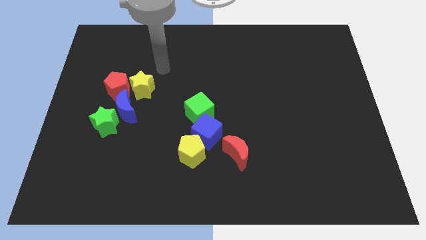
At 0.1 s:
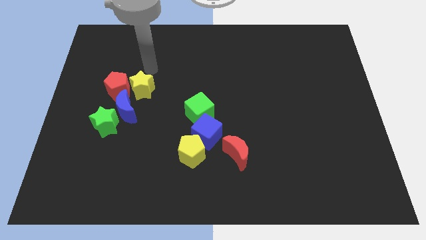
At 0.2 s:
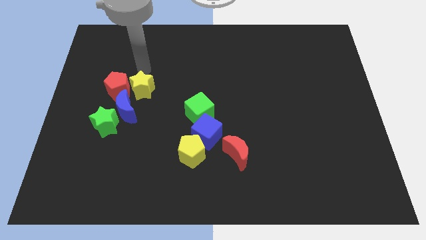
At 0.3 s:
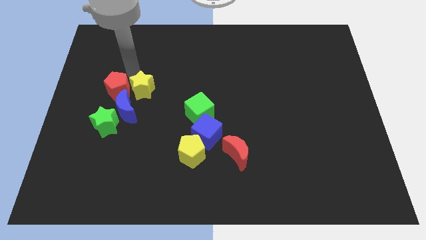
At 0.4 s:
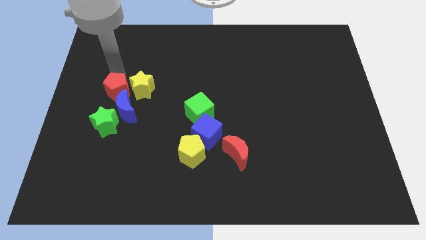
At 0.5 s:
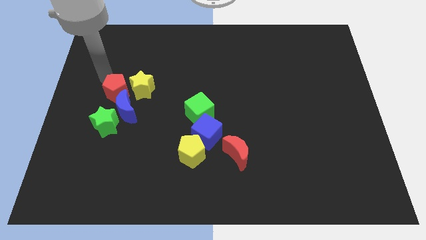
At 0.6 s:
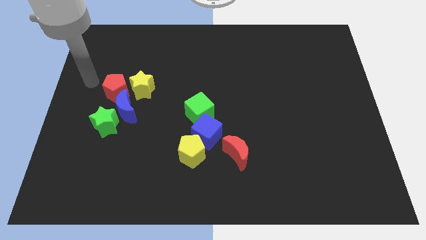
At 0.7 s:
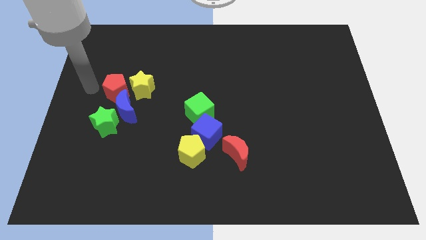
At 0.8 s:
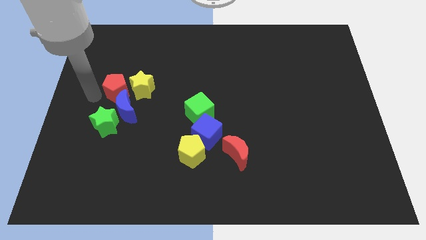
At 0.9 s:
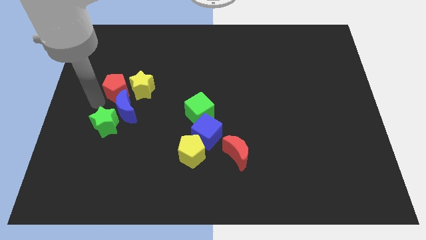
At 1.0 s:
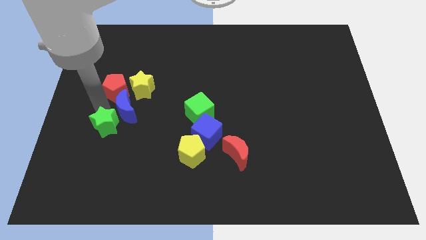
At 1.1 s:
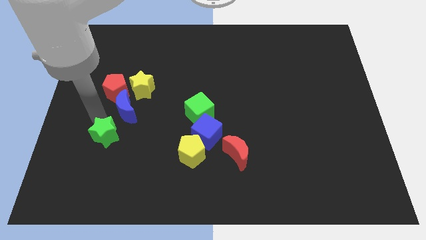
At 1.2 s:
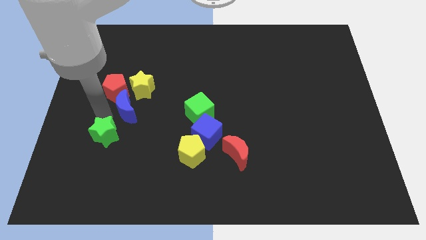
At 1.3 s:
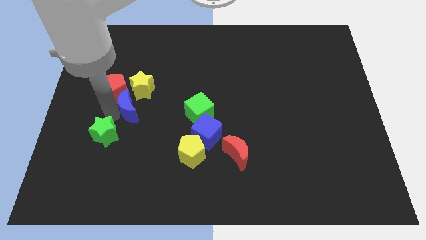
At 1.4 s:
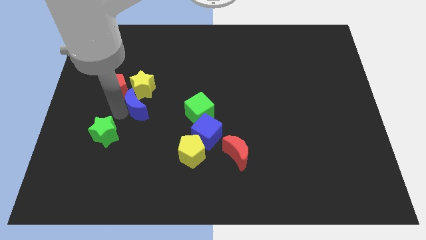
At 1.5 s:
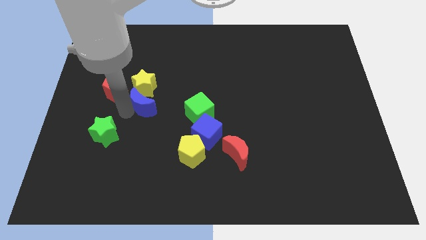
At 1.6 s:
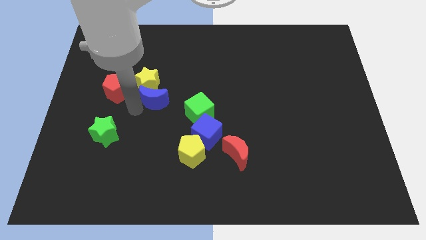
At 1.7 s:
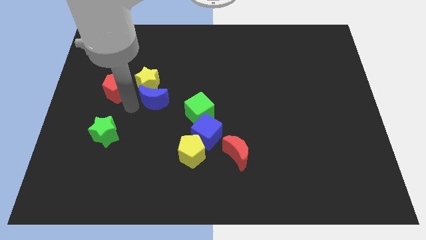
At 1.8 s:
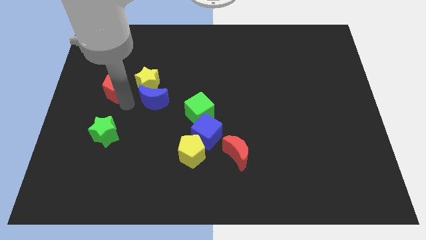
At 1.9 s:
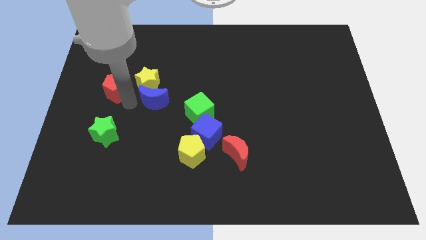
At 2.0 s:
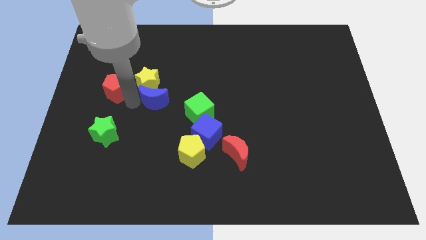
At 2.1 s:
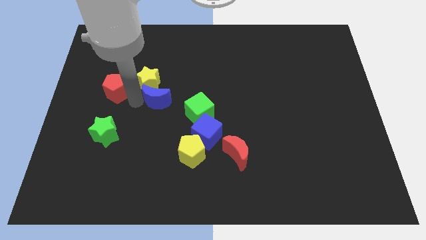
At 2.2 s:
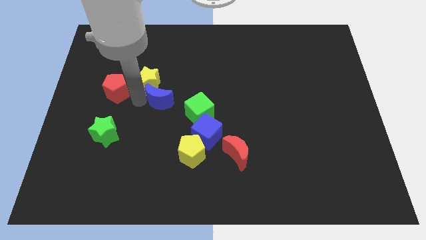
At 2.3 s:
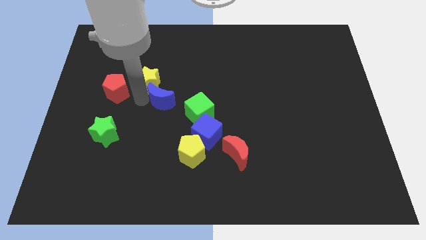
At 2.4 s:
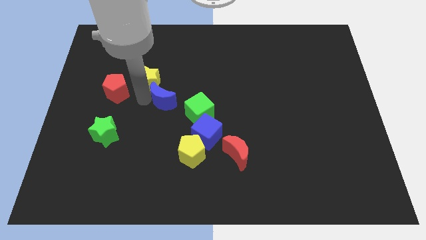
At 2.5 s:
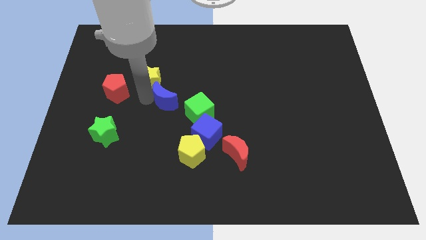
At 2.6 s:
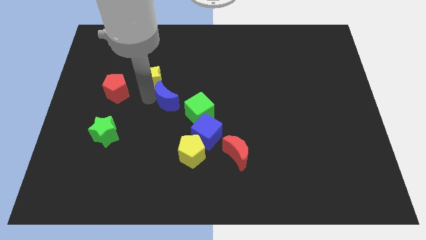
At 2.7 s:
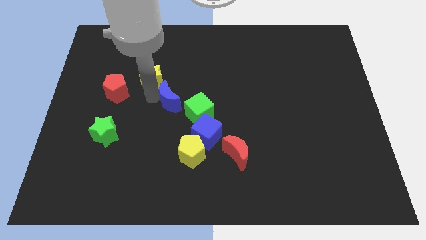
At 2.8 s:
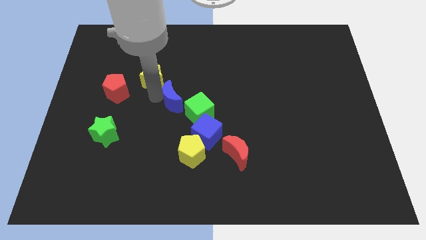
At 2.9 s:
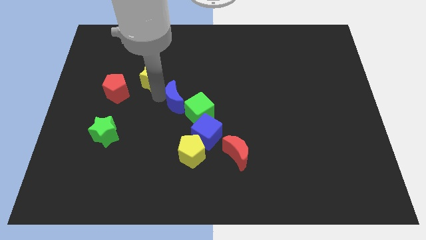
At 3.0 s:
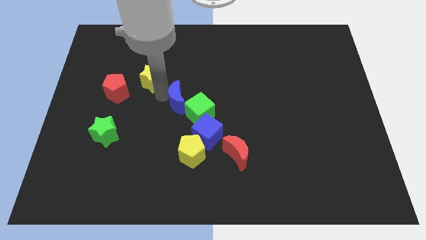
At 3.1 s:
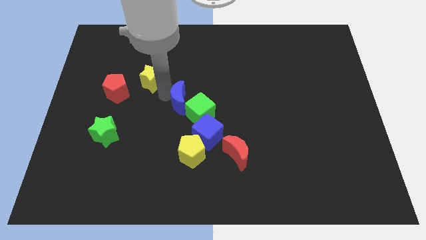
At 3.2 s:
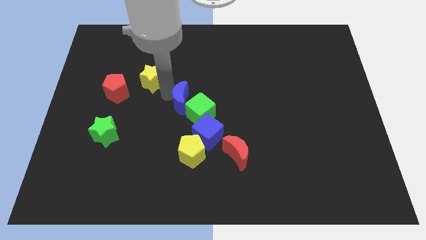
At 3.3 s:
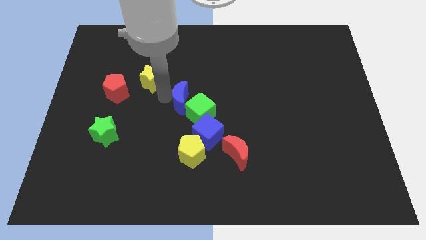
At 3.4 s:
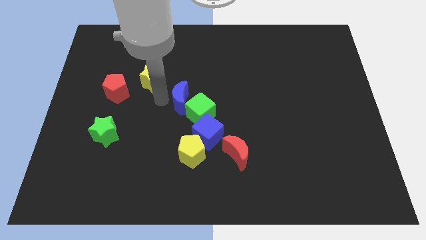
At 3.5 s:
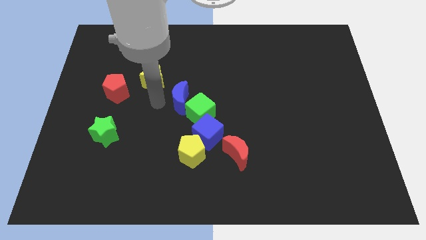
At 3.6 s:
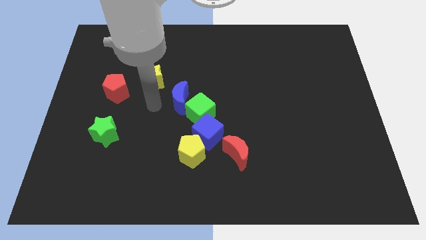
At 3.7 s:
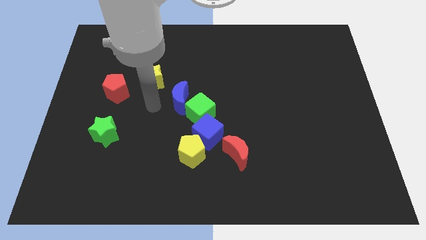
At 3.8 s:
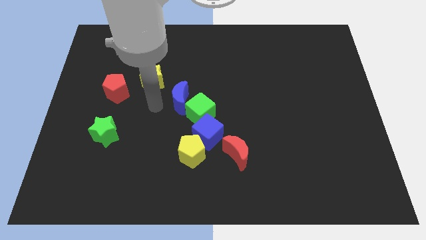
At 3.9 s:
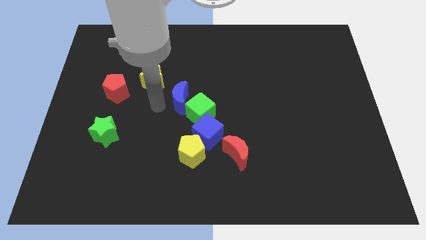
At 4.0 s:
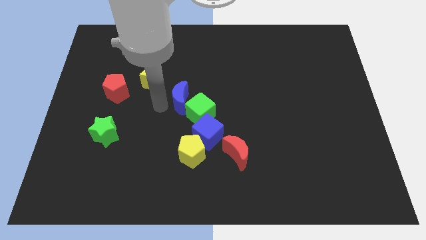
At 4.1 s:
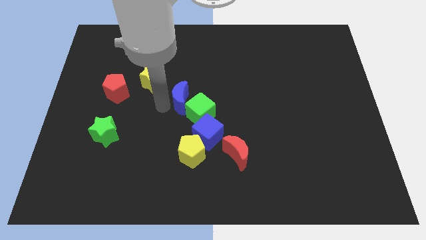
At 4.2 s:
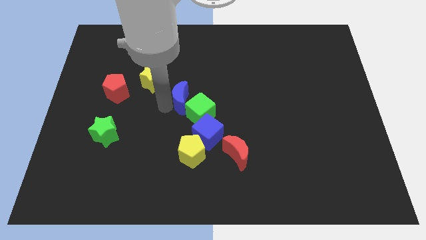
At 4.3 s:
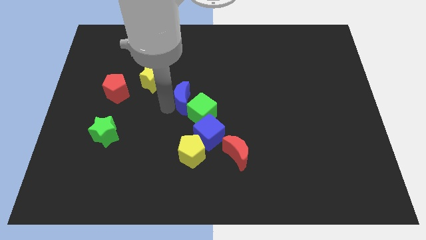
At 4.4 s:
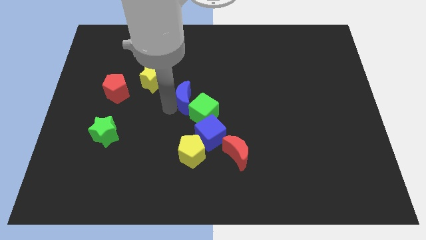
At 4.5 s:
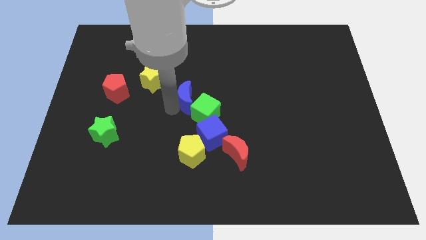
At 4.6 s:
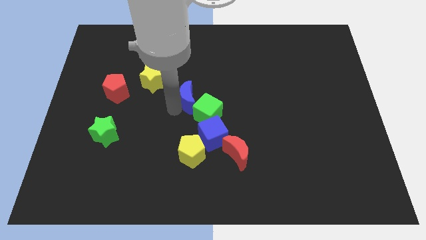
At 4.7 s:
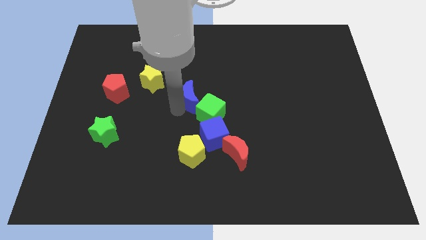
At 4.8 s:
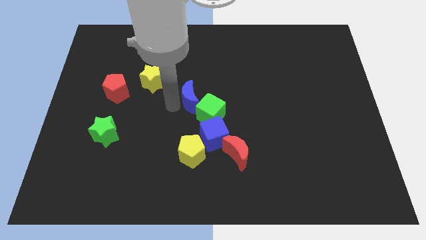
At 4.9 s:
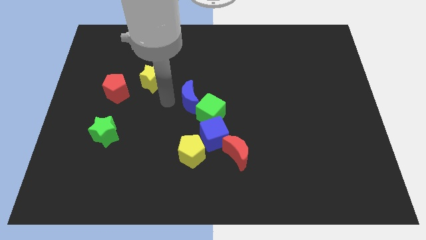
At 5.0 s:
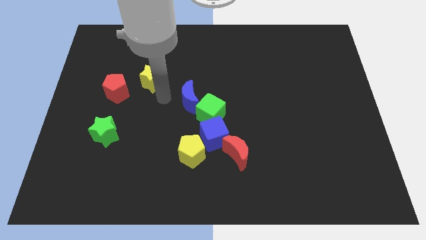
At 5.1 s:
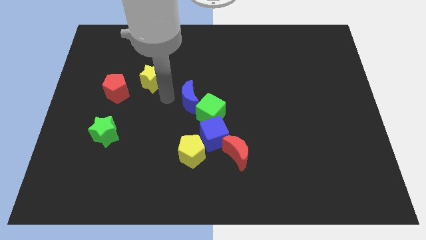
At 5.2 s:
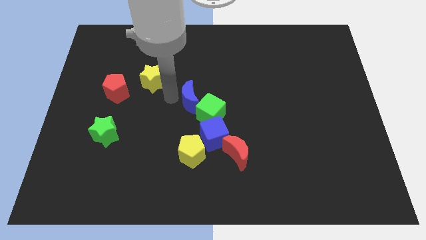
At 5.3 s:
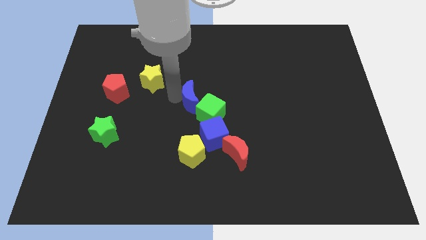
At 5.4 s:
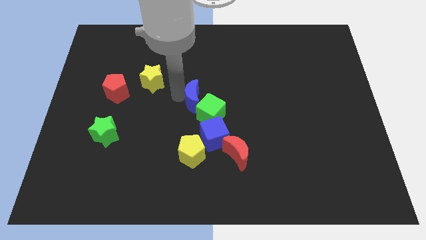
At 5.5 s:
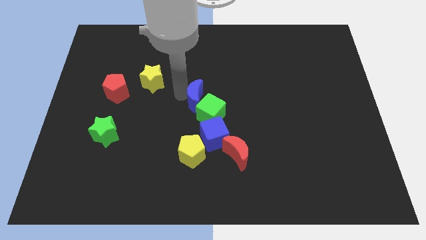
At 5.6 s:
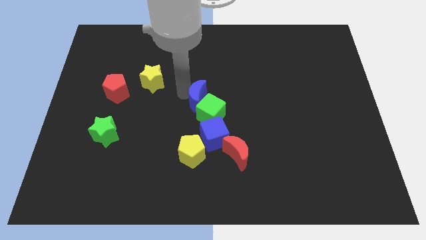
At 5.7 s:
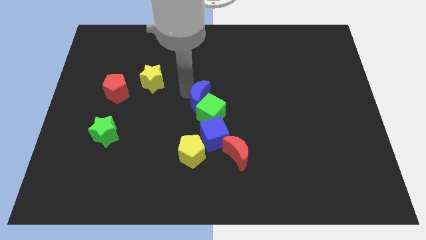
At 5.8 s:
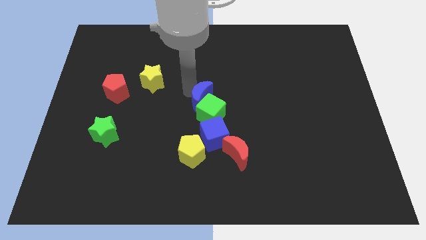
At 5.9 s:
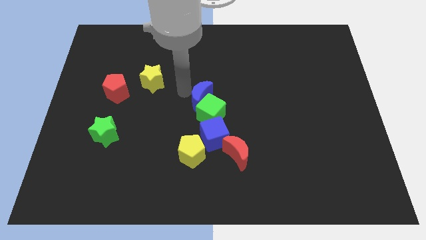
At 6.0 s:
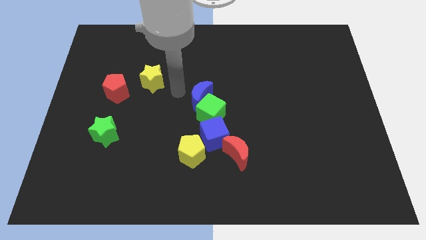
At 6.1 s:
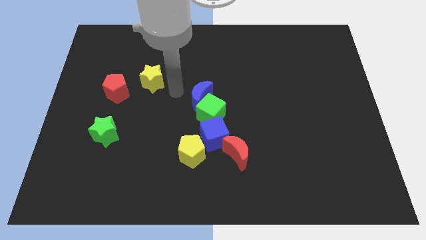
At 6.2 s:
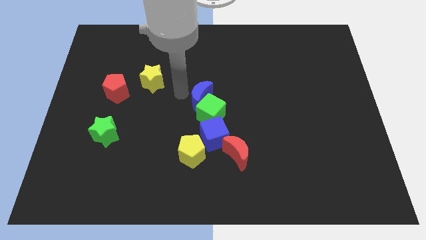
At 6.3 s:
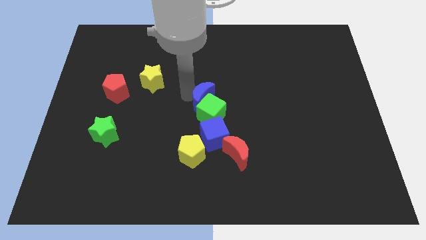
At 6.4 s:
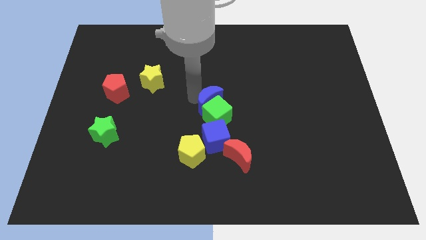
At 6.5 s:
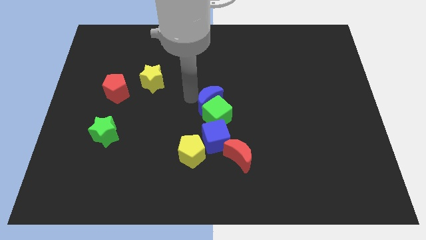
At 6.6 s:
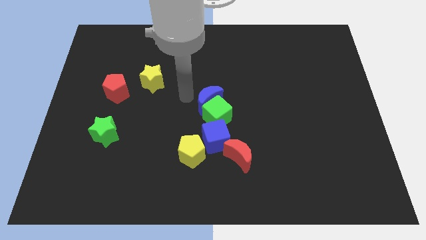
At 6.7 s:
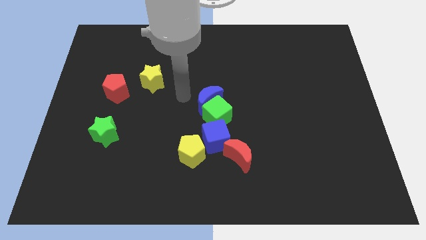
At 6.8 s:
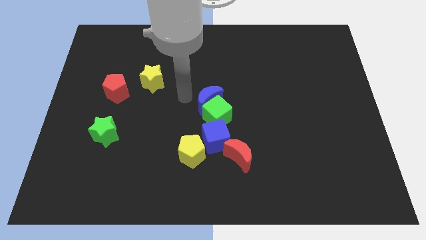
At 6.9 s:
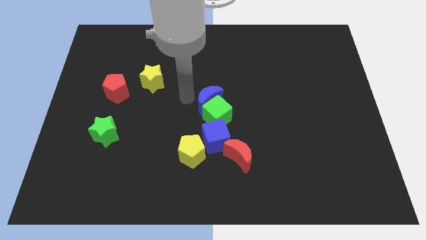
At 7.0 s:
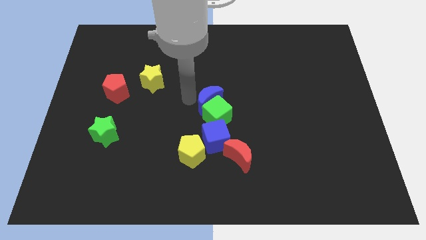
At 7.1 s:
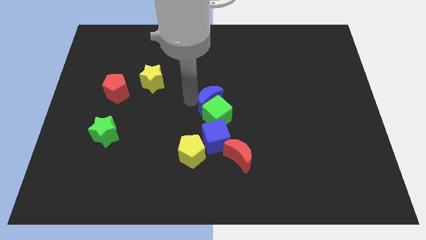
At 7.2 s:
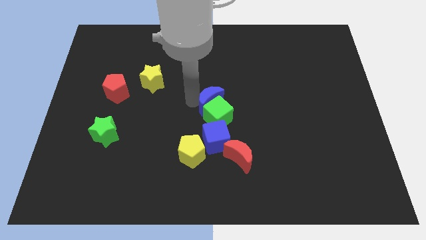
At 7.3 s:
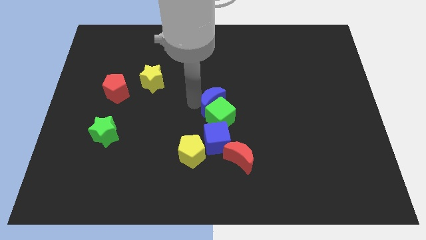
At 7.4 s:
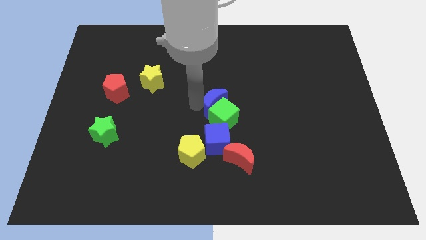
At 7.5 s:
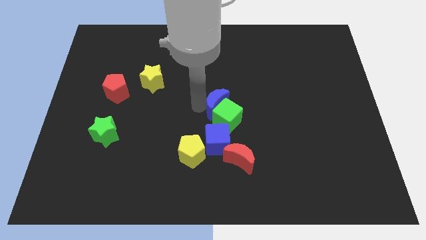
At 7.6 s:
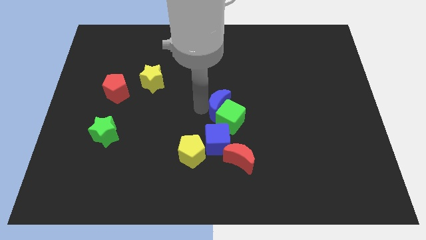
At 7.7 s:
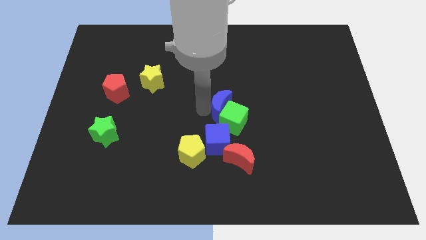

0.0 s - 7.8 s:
slide the blue moon above the red moon
